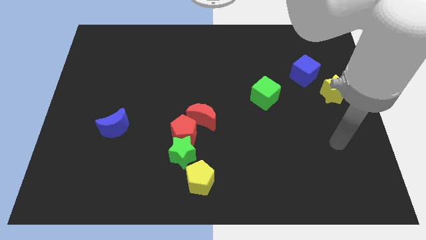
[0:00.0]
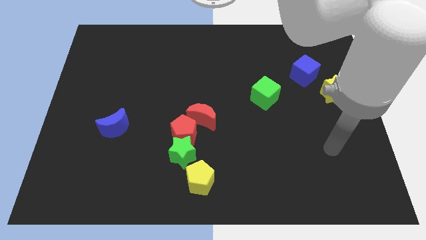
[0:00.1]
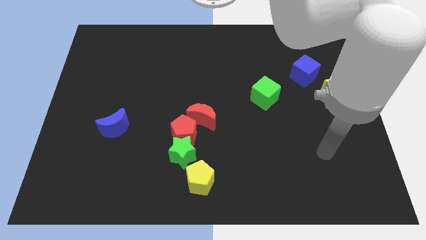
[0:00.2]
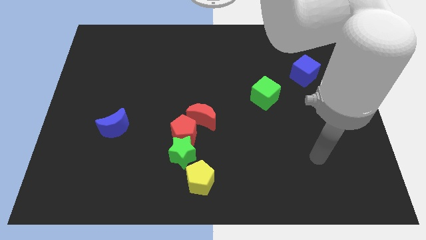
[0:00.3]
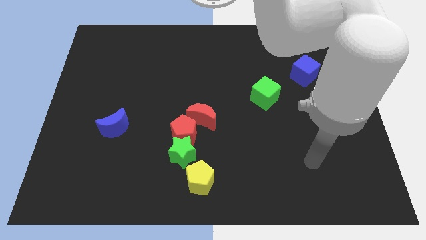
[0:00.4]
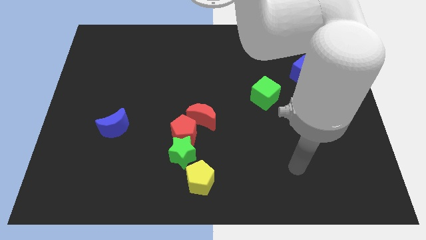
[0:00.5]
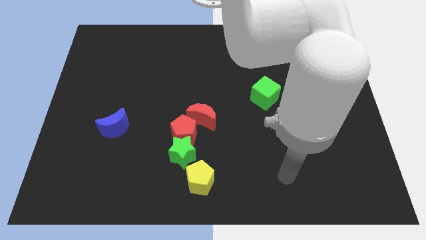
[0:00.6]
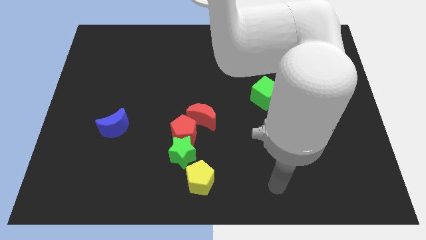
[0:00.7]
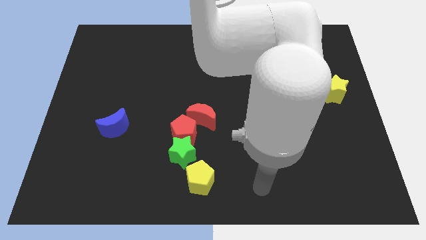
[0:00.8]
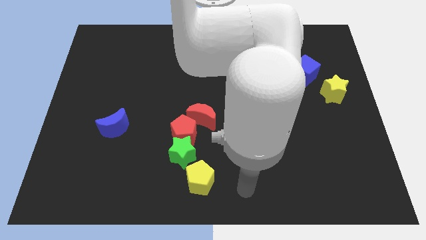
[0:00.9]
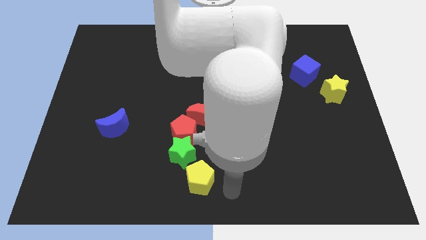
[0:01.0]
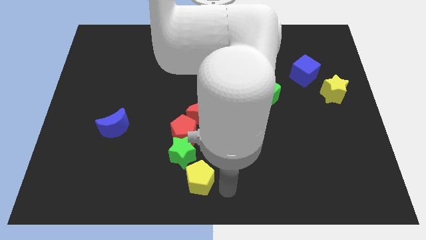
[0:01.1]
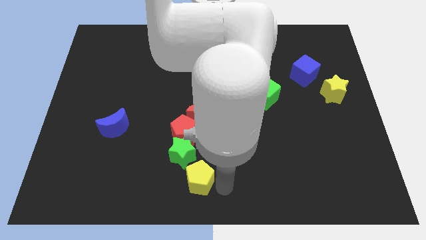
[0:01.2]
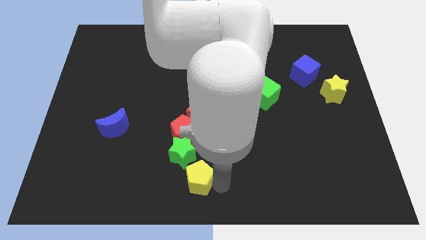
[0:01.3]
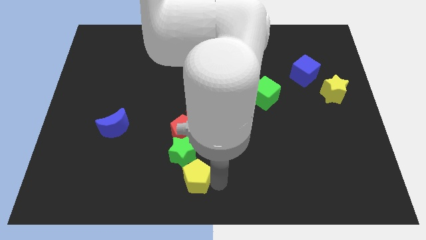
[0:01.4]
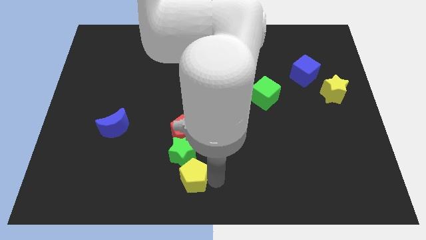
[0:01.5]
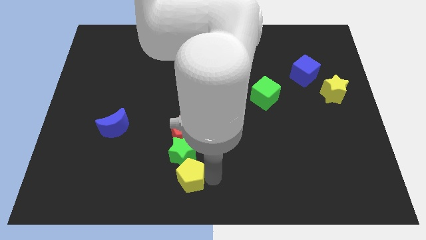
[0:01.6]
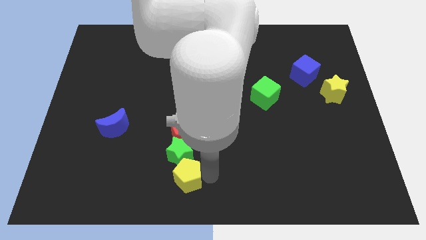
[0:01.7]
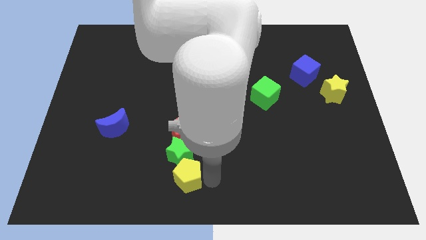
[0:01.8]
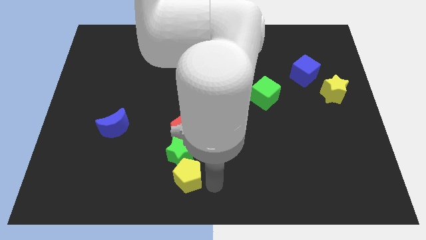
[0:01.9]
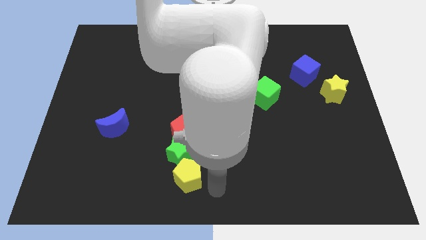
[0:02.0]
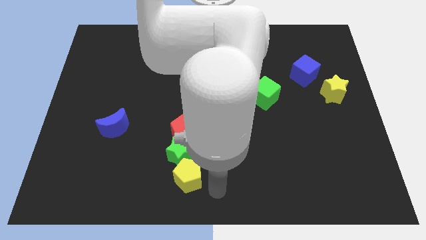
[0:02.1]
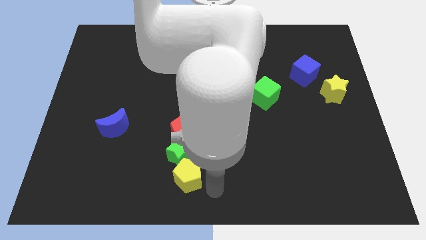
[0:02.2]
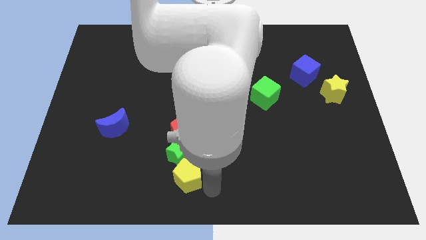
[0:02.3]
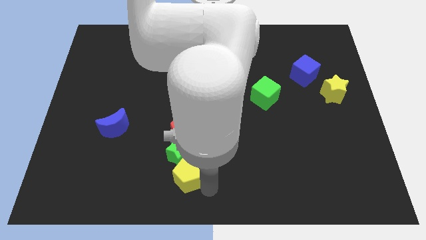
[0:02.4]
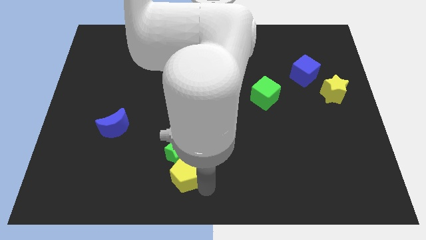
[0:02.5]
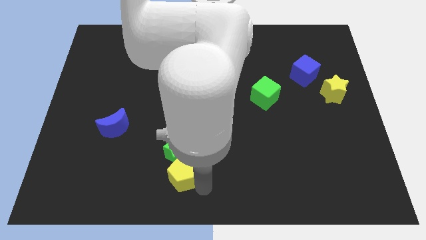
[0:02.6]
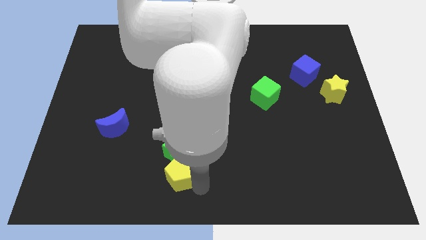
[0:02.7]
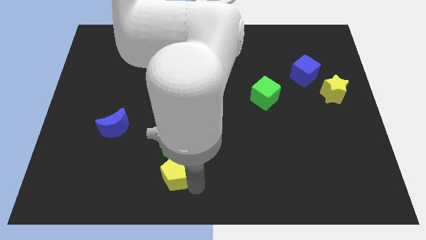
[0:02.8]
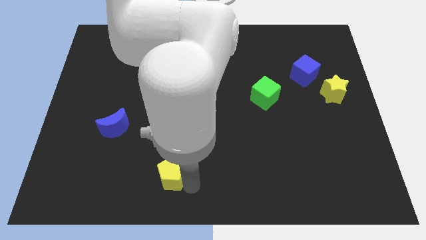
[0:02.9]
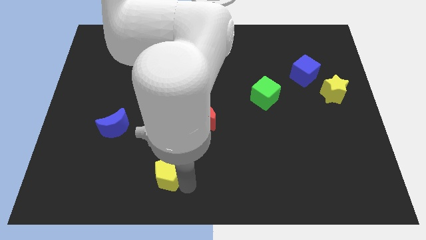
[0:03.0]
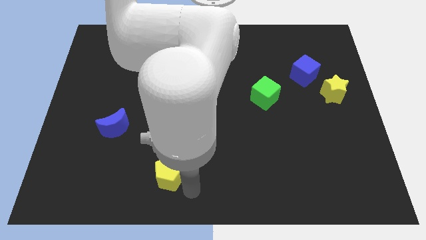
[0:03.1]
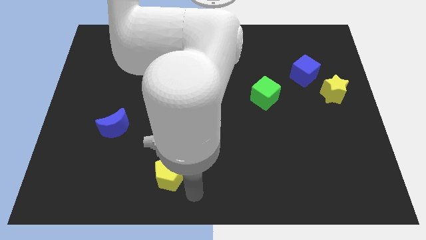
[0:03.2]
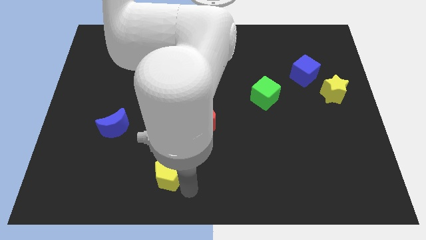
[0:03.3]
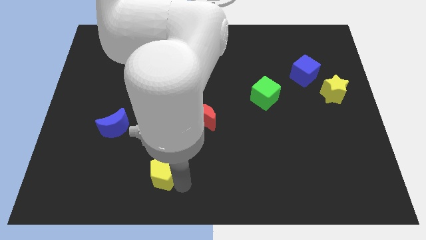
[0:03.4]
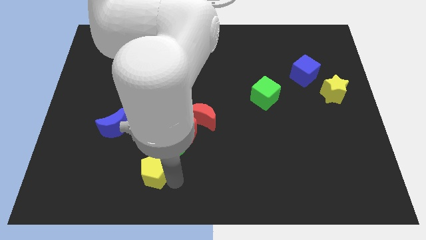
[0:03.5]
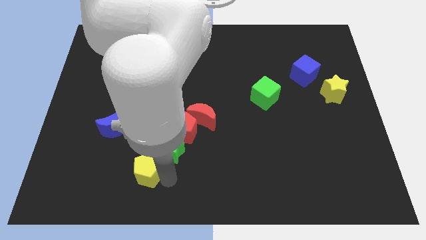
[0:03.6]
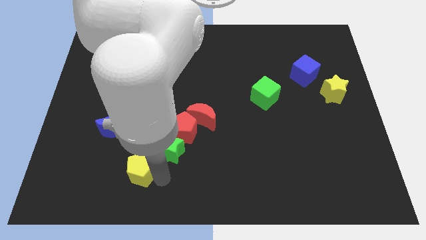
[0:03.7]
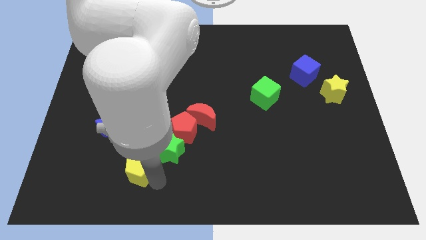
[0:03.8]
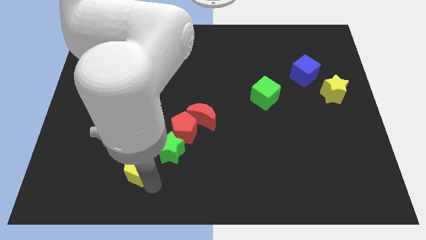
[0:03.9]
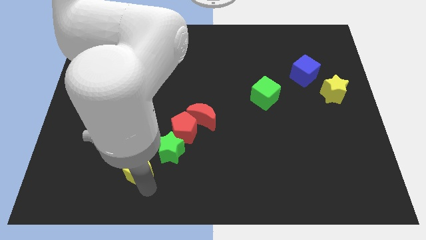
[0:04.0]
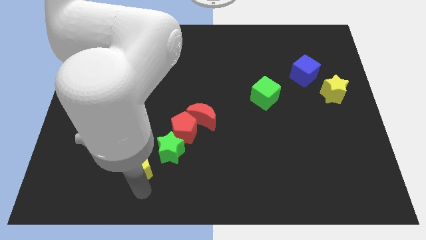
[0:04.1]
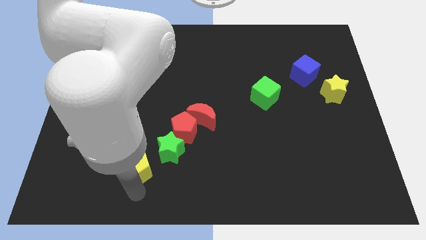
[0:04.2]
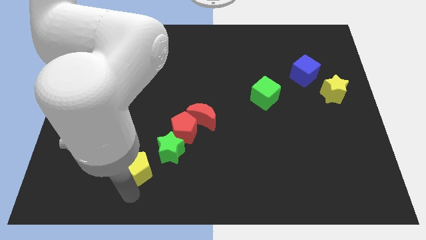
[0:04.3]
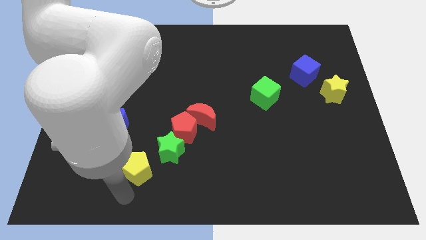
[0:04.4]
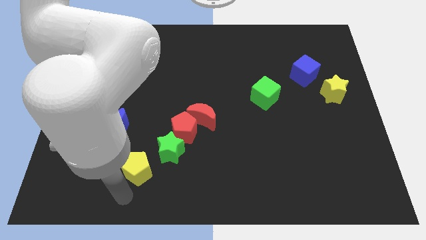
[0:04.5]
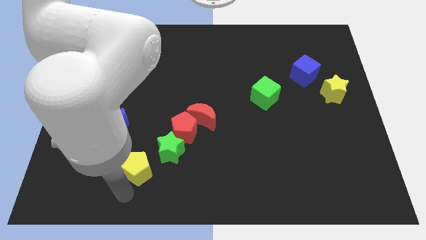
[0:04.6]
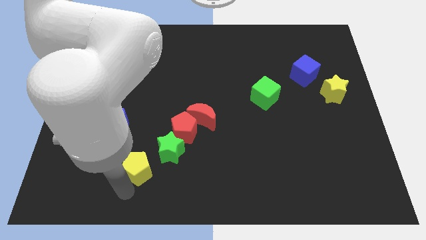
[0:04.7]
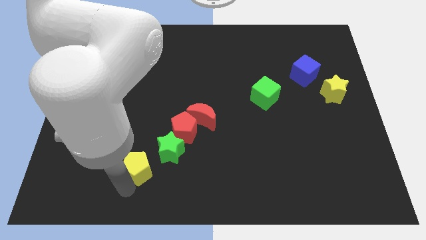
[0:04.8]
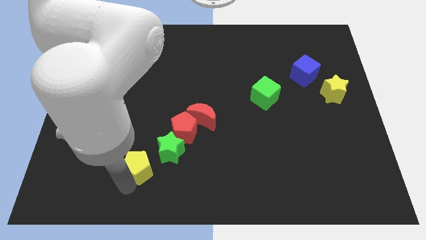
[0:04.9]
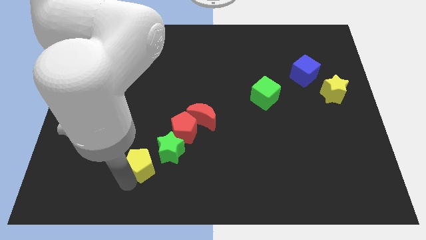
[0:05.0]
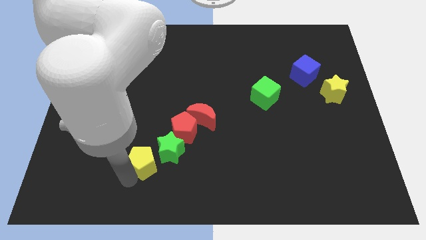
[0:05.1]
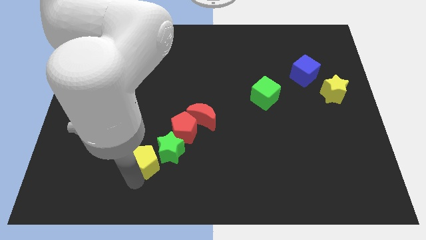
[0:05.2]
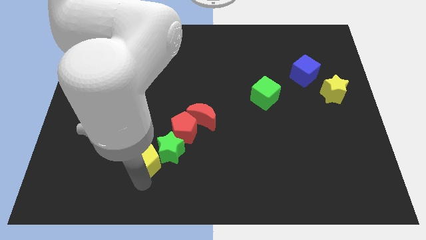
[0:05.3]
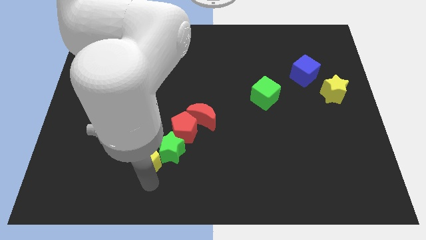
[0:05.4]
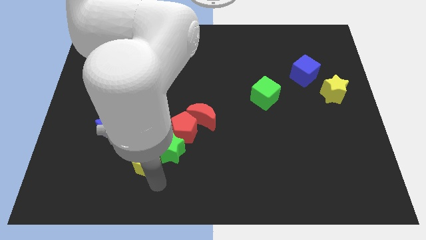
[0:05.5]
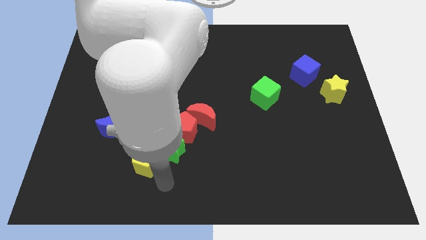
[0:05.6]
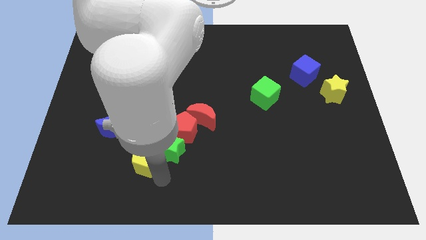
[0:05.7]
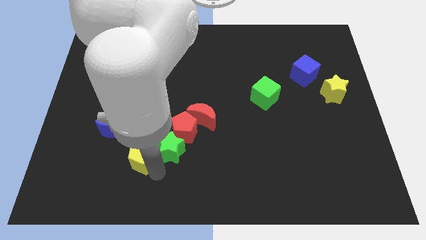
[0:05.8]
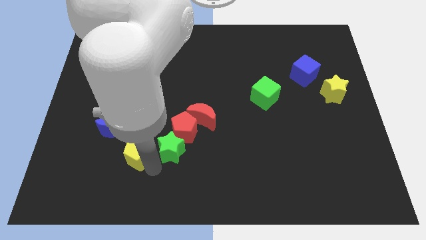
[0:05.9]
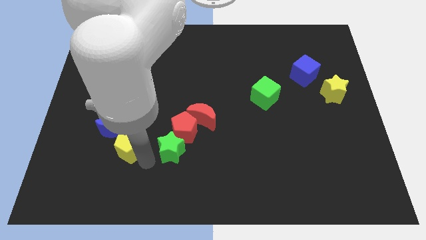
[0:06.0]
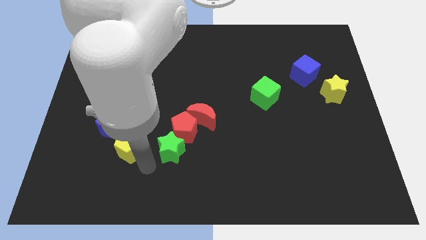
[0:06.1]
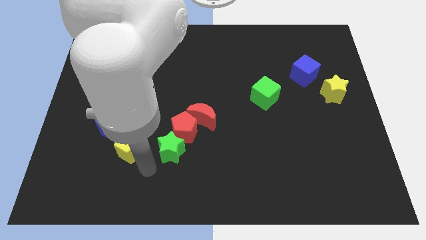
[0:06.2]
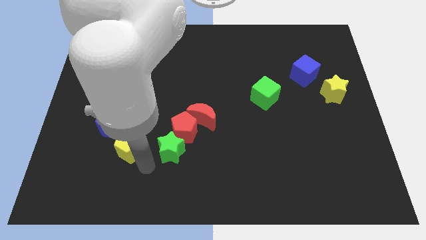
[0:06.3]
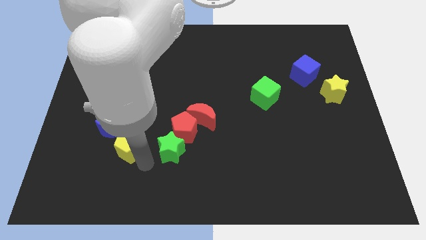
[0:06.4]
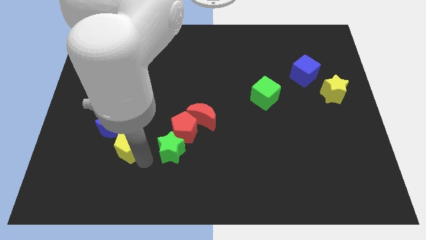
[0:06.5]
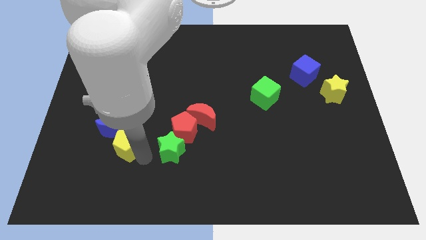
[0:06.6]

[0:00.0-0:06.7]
move the yellow pentagon close to the blue moon
